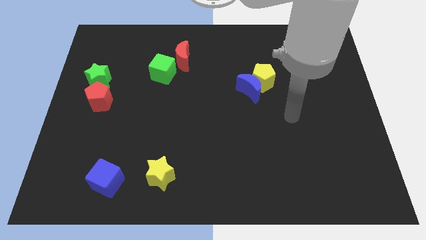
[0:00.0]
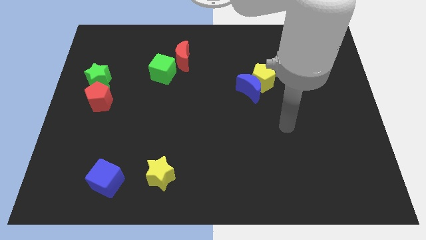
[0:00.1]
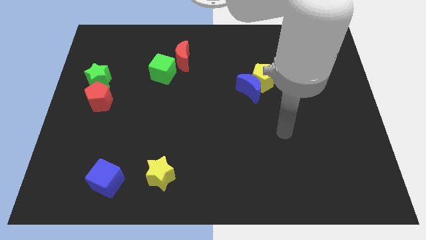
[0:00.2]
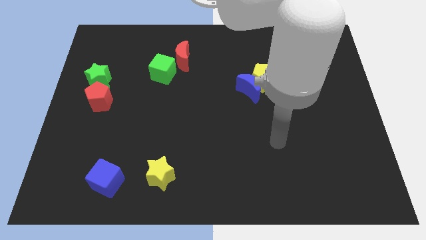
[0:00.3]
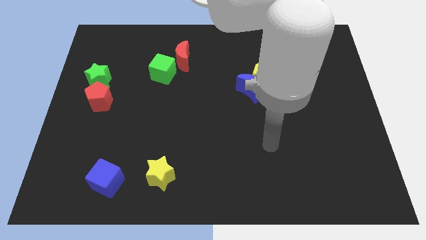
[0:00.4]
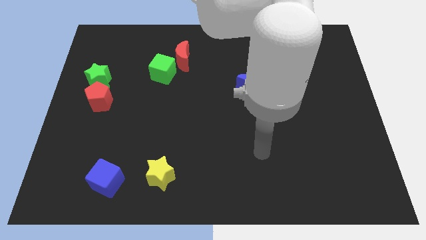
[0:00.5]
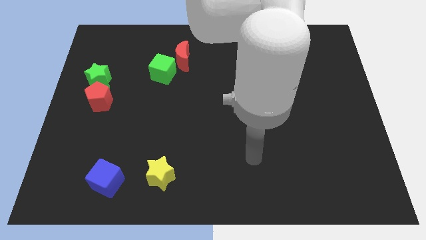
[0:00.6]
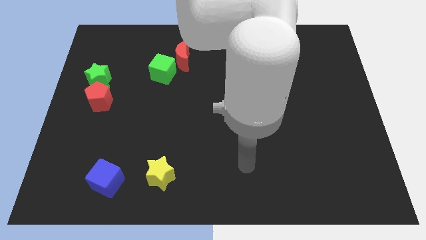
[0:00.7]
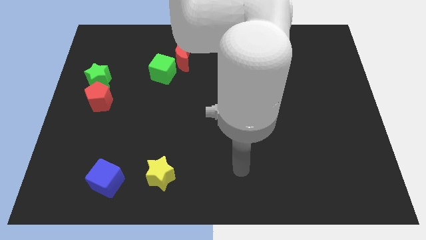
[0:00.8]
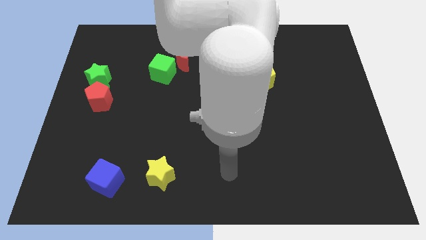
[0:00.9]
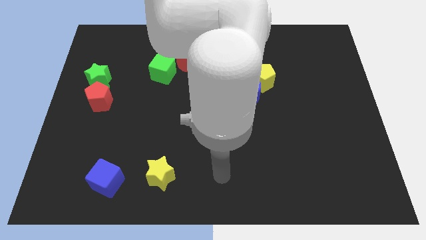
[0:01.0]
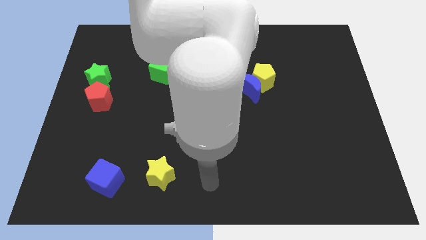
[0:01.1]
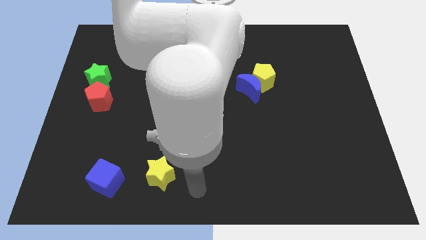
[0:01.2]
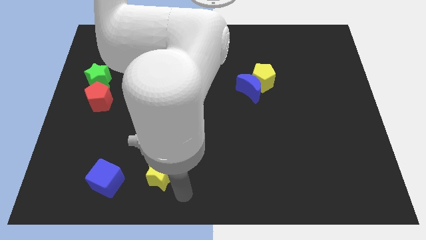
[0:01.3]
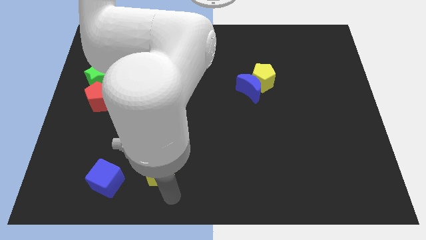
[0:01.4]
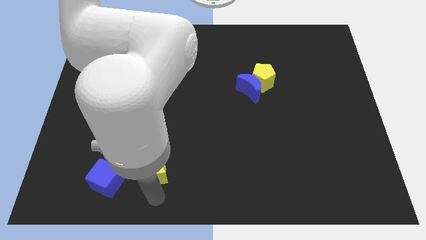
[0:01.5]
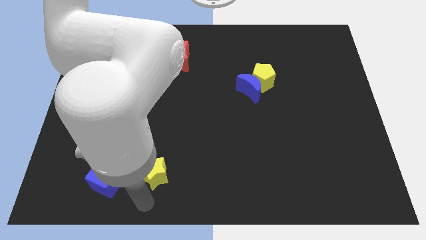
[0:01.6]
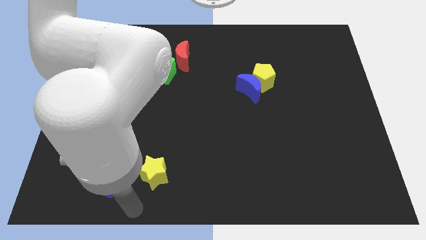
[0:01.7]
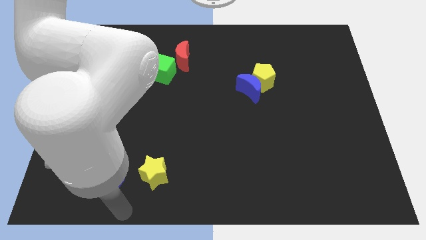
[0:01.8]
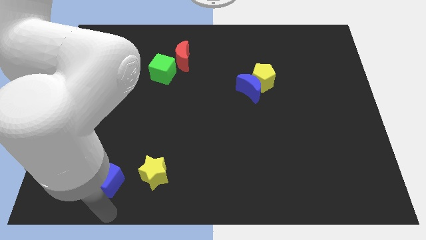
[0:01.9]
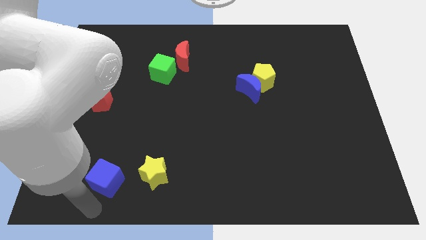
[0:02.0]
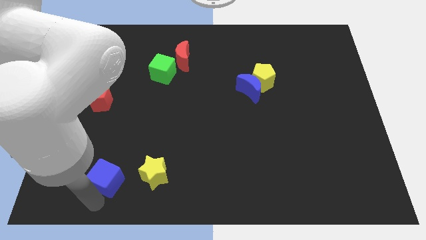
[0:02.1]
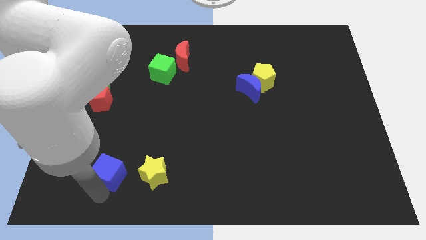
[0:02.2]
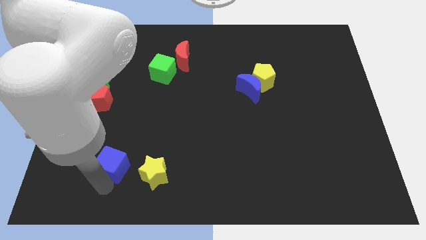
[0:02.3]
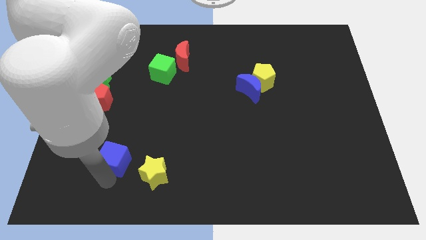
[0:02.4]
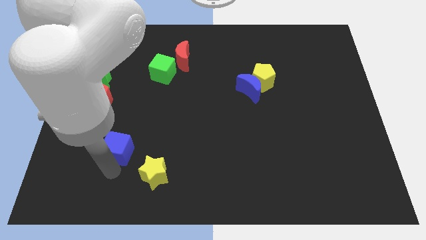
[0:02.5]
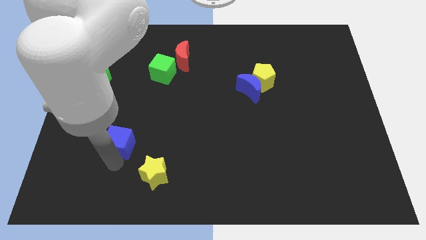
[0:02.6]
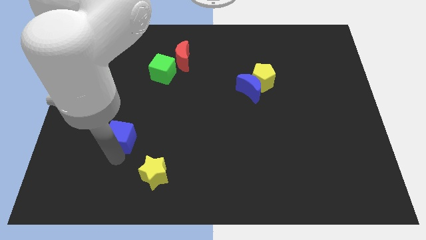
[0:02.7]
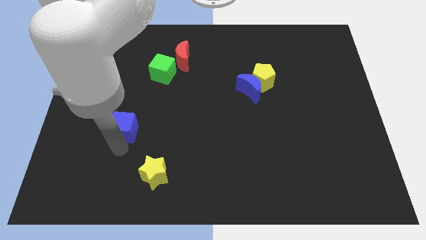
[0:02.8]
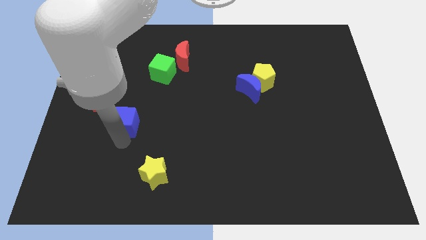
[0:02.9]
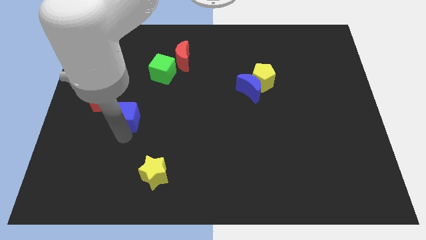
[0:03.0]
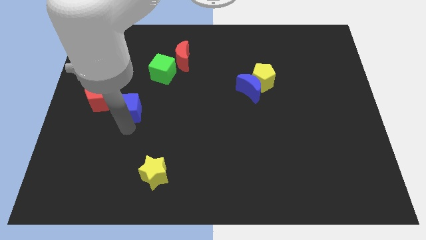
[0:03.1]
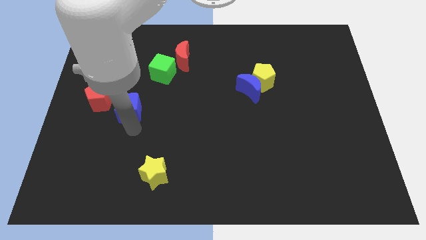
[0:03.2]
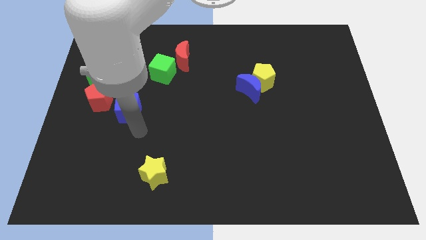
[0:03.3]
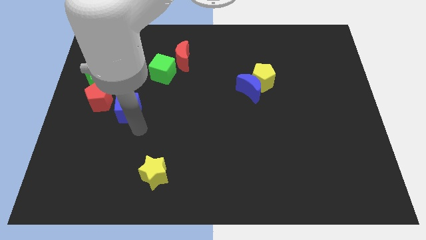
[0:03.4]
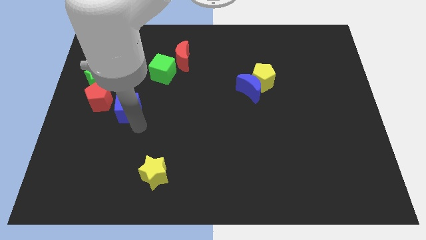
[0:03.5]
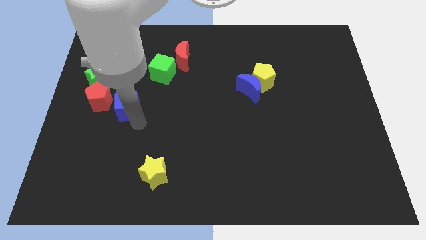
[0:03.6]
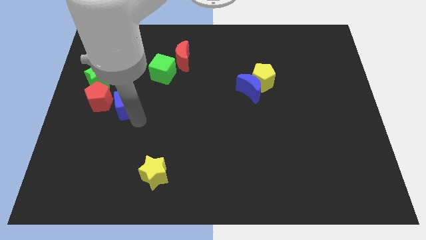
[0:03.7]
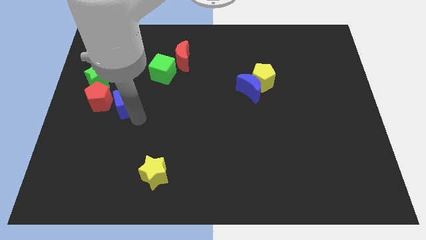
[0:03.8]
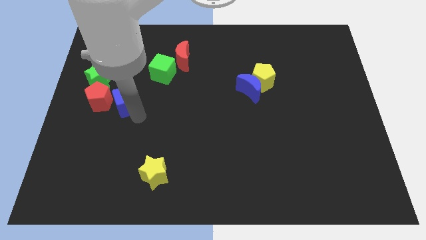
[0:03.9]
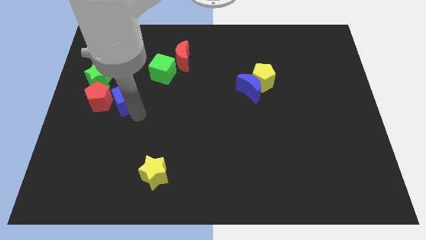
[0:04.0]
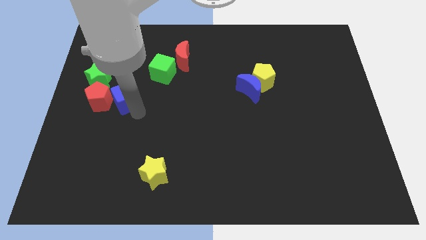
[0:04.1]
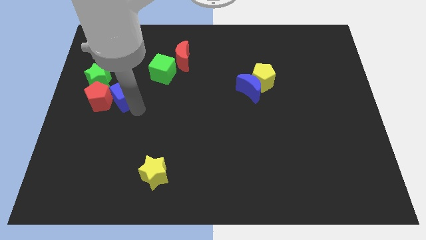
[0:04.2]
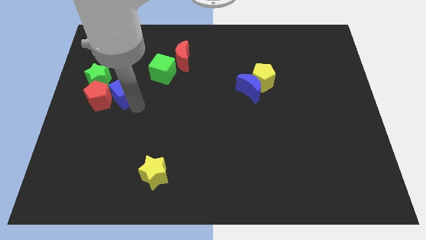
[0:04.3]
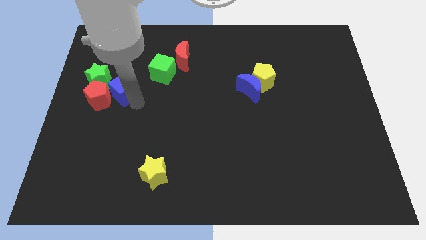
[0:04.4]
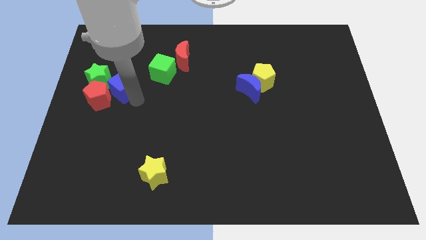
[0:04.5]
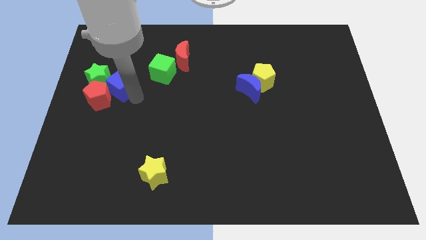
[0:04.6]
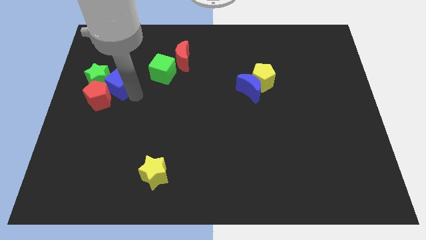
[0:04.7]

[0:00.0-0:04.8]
slide the blue cube towards the green star

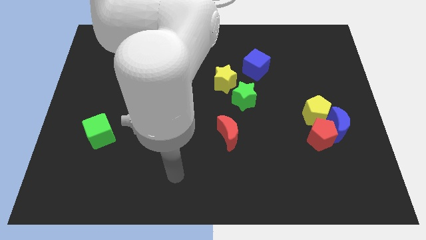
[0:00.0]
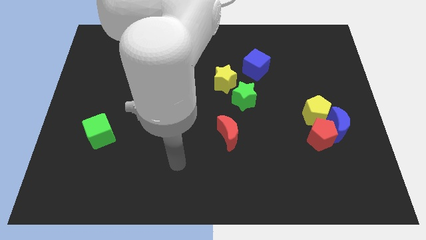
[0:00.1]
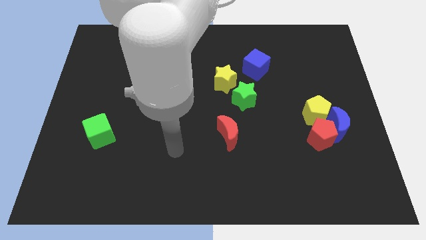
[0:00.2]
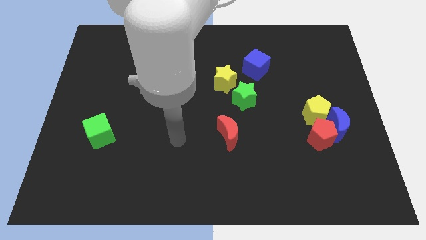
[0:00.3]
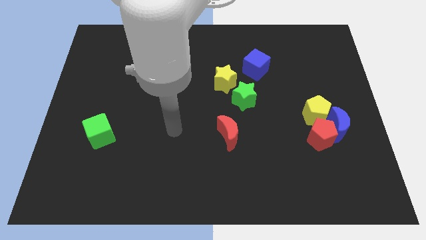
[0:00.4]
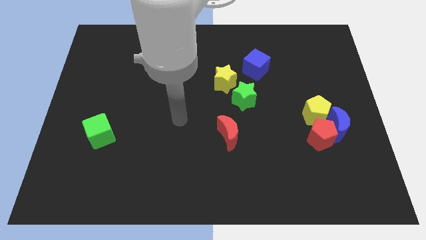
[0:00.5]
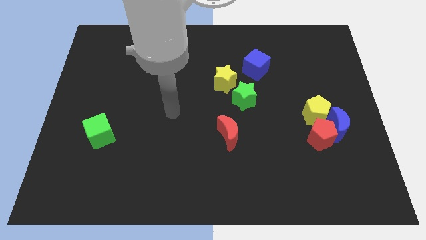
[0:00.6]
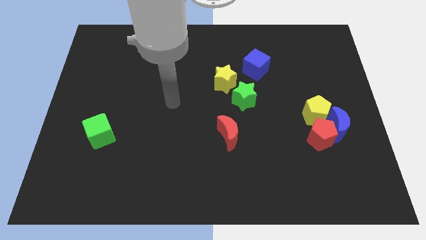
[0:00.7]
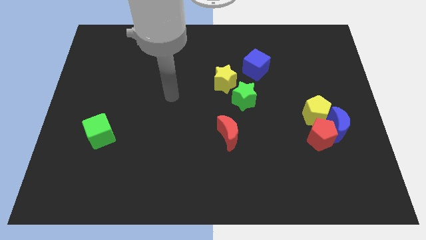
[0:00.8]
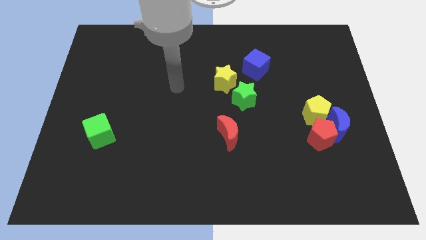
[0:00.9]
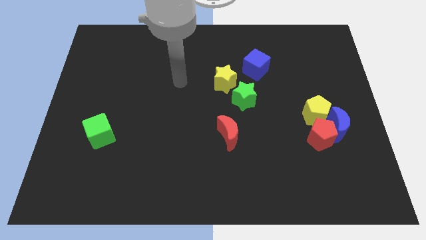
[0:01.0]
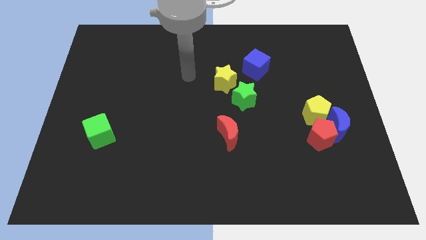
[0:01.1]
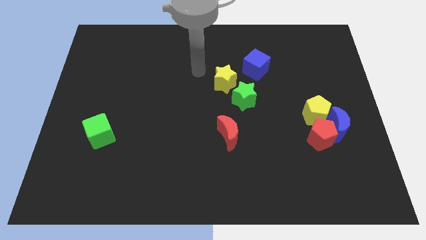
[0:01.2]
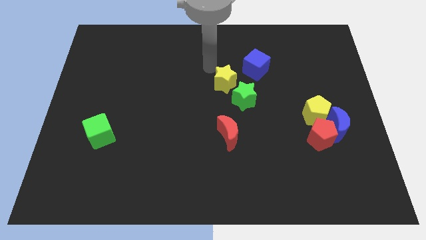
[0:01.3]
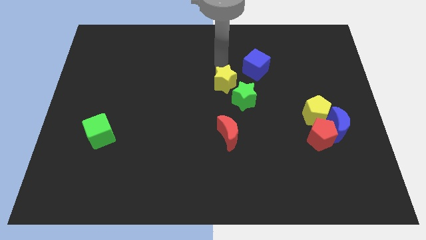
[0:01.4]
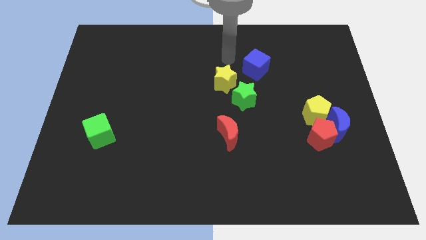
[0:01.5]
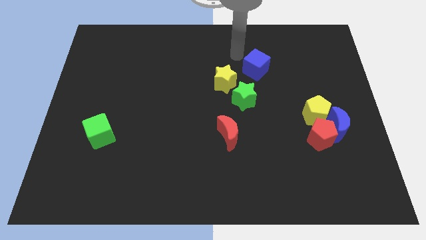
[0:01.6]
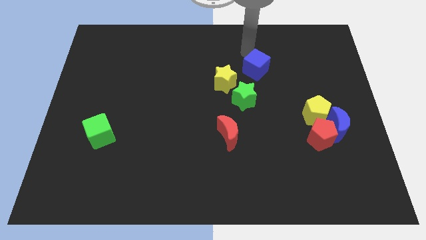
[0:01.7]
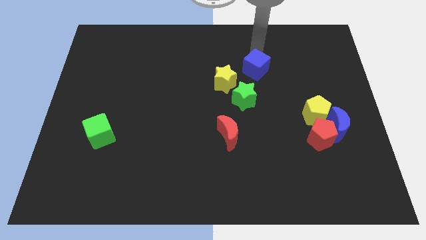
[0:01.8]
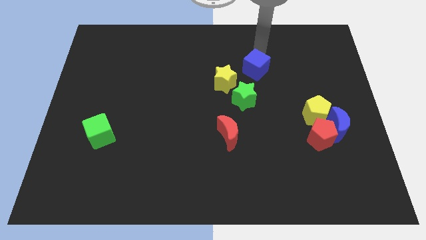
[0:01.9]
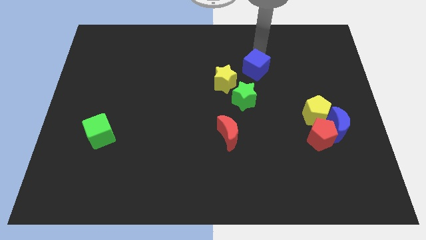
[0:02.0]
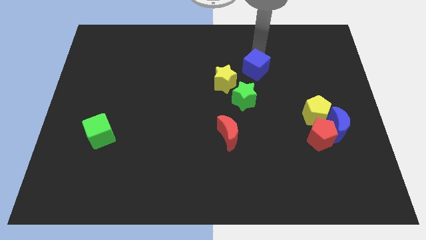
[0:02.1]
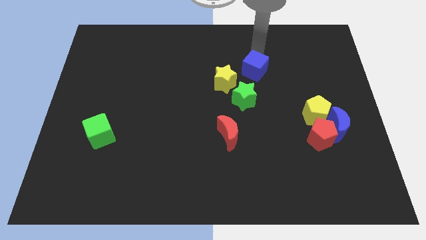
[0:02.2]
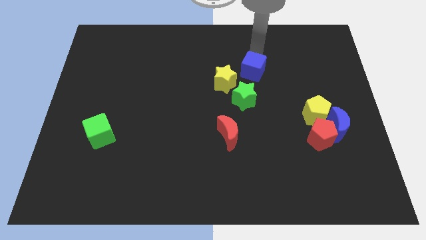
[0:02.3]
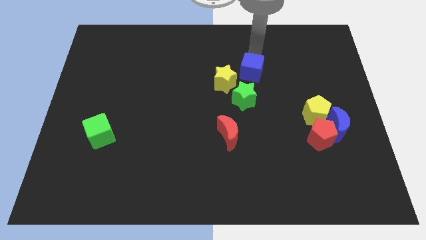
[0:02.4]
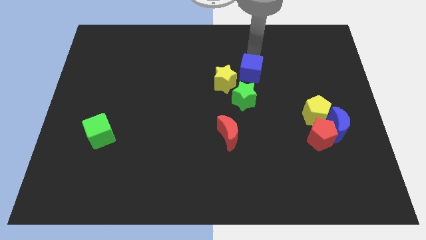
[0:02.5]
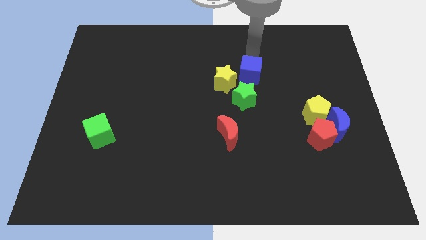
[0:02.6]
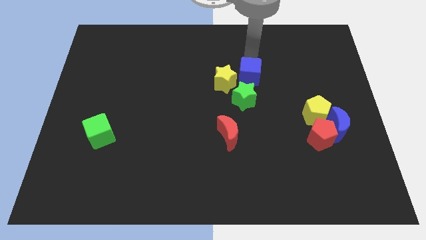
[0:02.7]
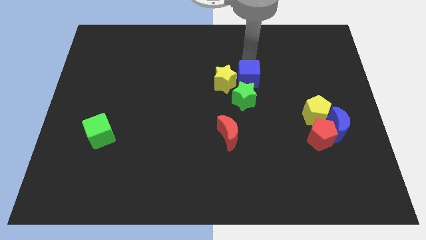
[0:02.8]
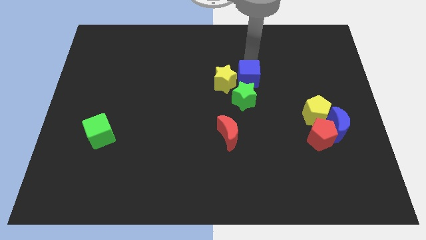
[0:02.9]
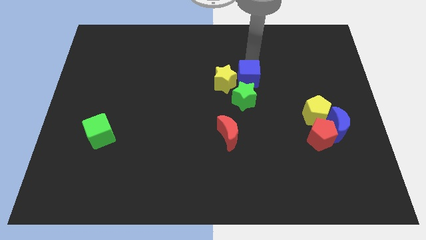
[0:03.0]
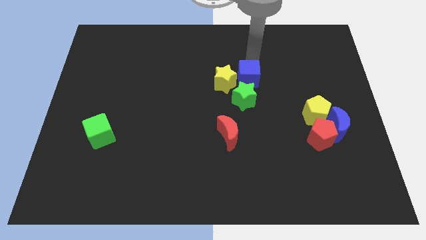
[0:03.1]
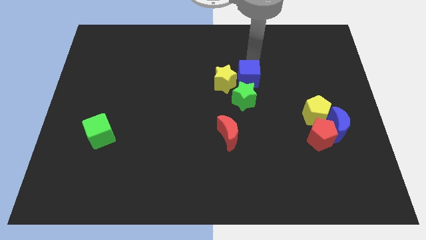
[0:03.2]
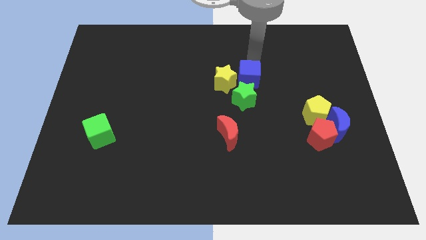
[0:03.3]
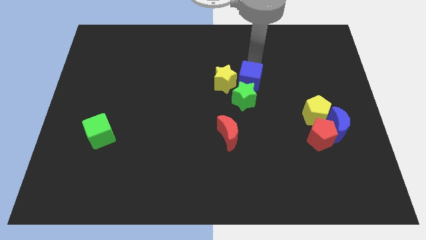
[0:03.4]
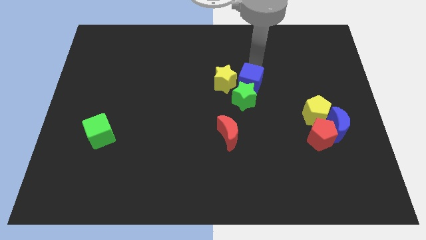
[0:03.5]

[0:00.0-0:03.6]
put the blue cube to the green star
